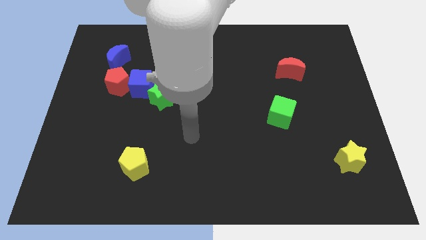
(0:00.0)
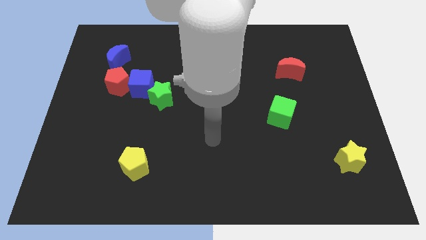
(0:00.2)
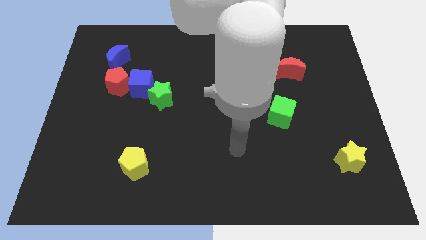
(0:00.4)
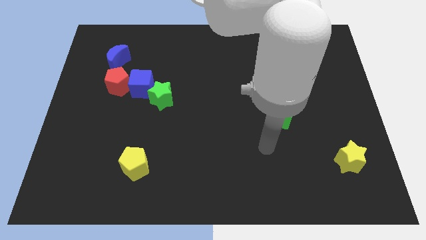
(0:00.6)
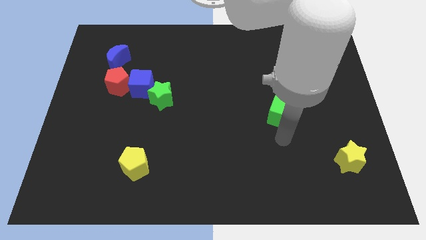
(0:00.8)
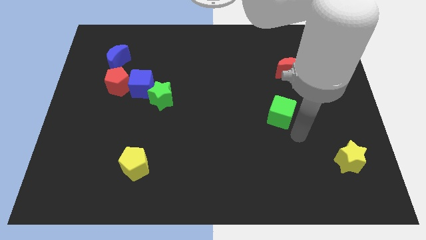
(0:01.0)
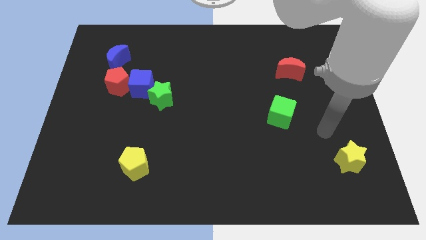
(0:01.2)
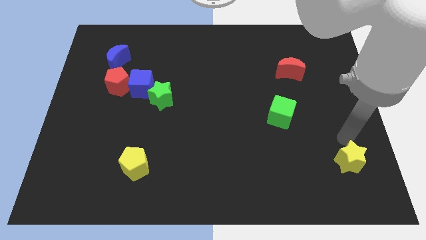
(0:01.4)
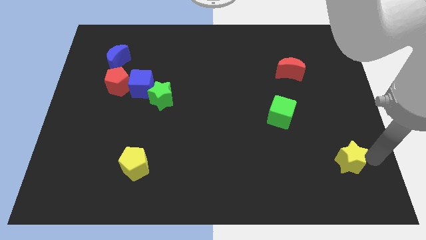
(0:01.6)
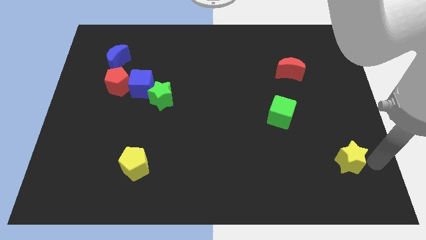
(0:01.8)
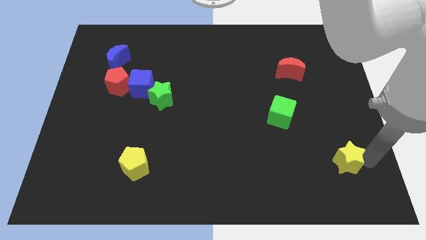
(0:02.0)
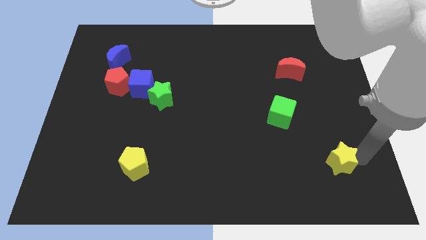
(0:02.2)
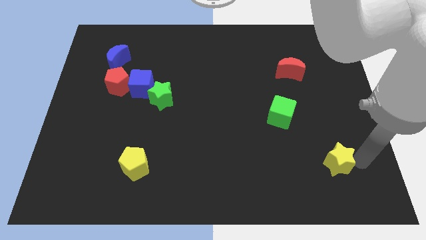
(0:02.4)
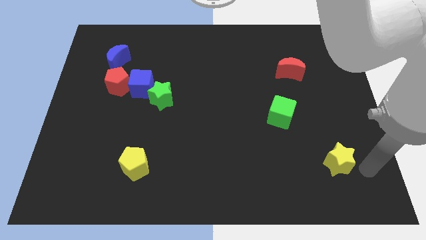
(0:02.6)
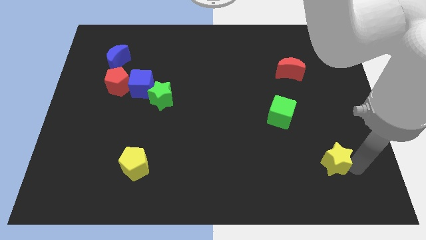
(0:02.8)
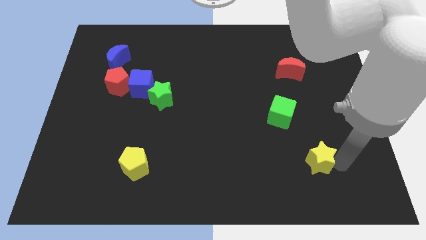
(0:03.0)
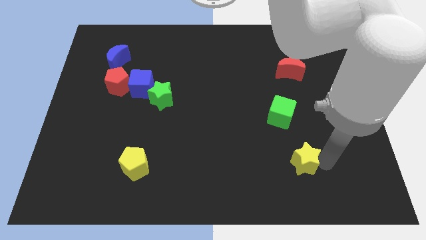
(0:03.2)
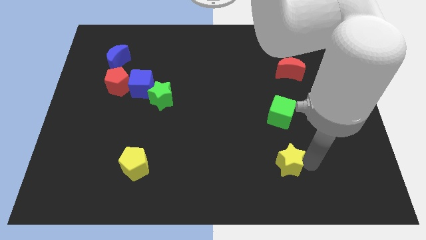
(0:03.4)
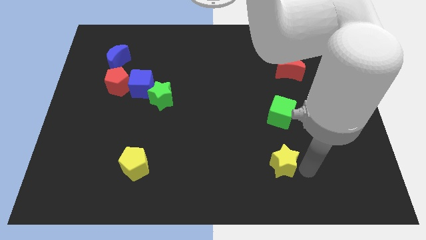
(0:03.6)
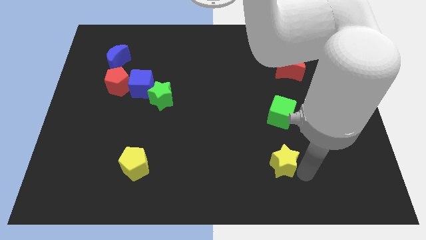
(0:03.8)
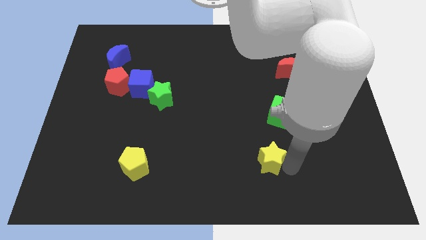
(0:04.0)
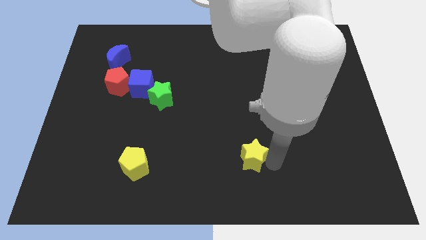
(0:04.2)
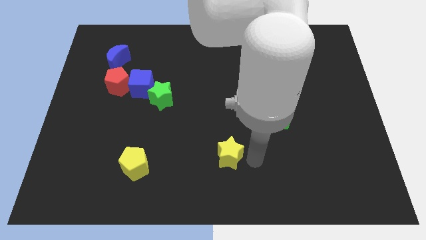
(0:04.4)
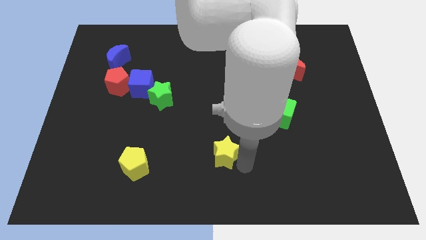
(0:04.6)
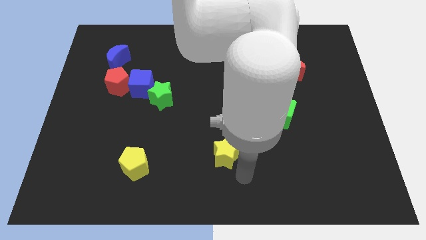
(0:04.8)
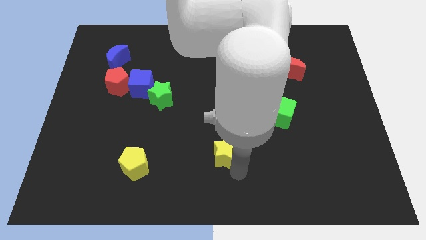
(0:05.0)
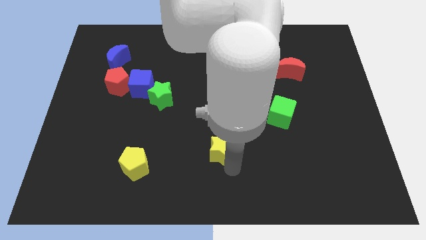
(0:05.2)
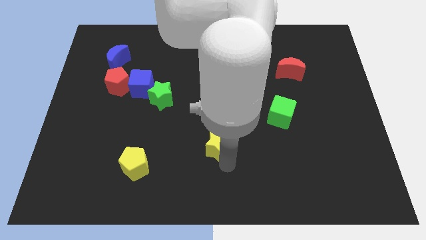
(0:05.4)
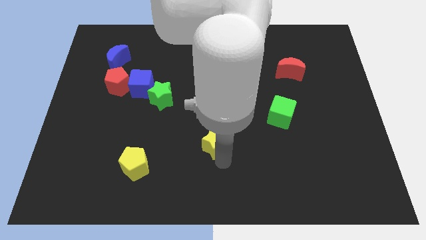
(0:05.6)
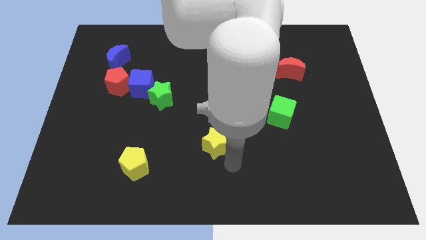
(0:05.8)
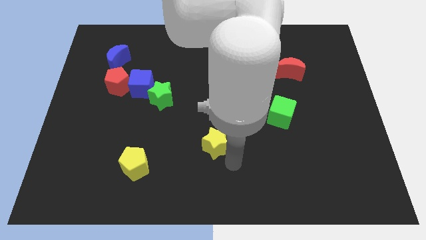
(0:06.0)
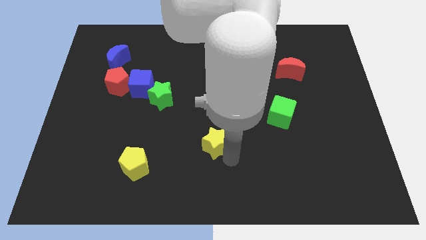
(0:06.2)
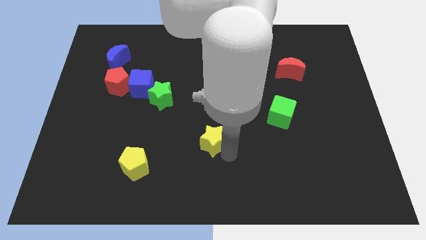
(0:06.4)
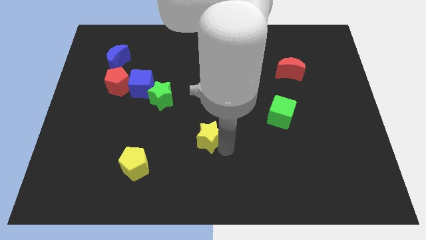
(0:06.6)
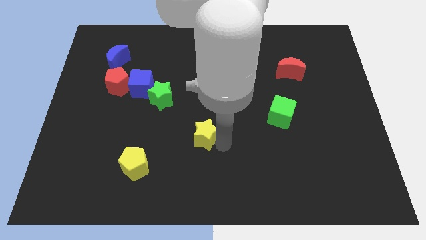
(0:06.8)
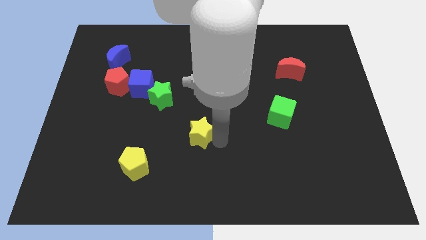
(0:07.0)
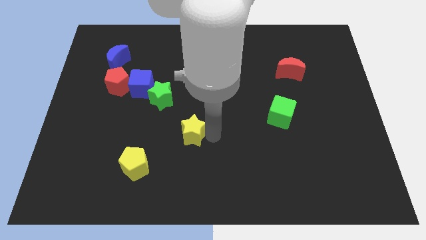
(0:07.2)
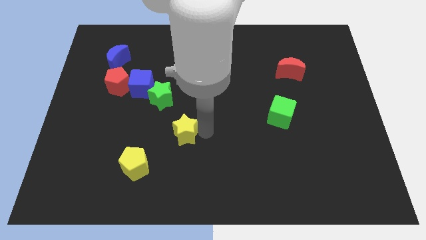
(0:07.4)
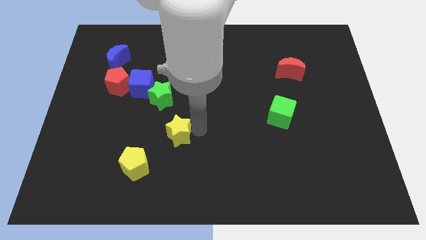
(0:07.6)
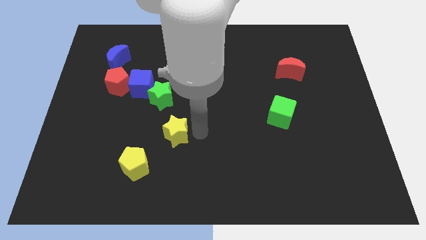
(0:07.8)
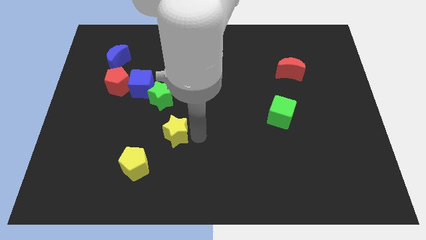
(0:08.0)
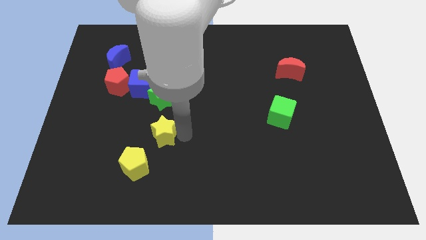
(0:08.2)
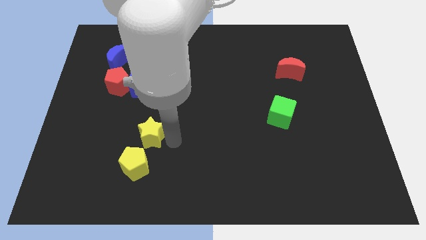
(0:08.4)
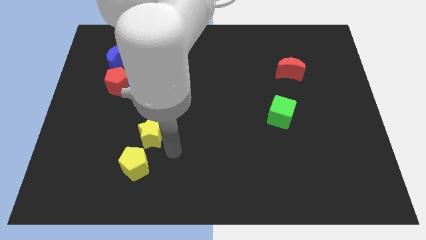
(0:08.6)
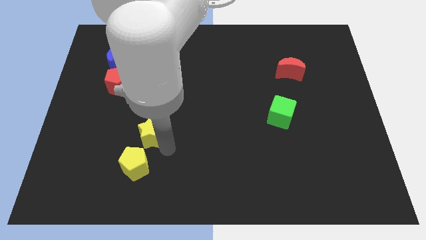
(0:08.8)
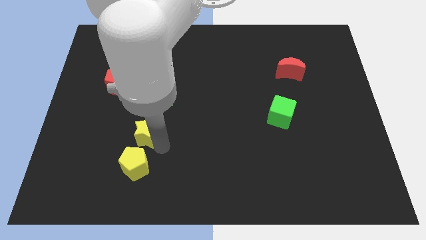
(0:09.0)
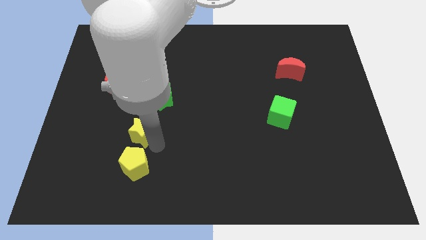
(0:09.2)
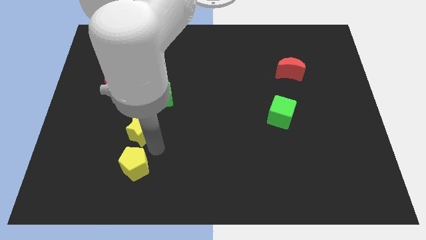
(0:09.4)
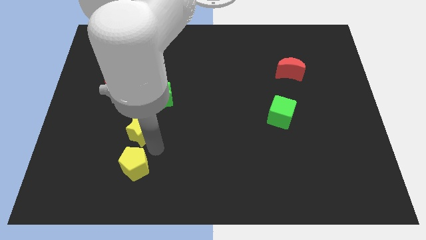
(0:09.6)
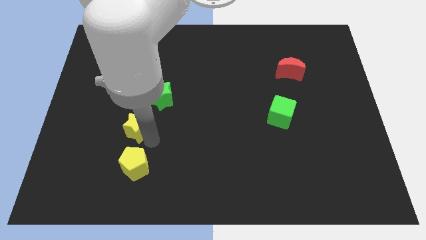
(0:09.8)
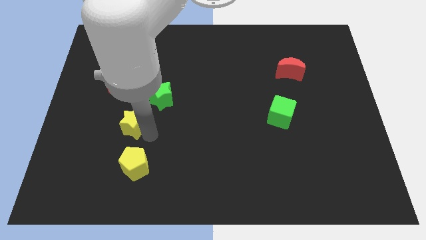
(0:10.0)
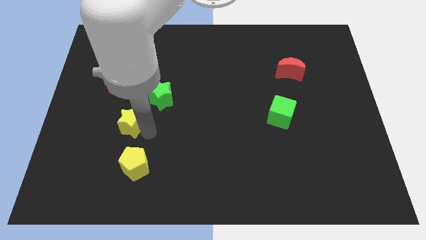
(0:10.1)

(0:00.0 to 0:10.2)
move the yellow star to the bottom of the red pentagon

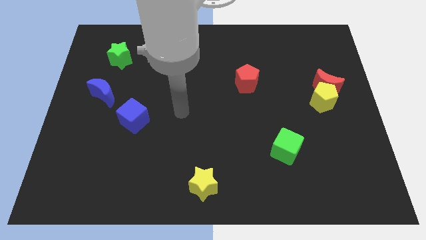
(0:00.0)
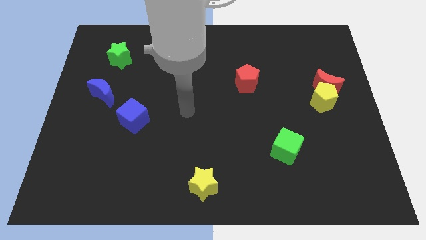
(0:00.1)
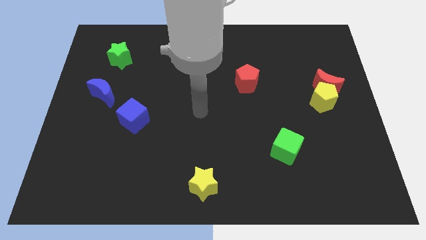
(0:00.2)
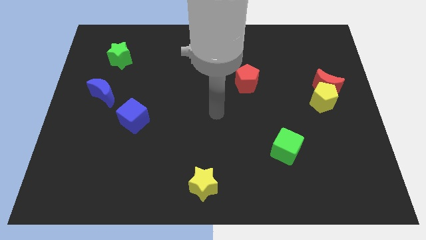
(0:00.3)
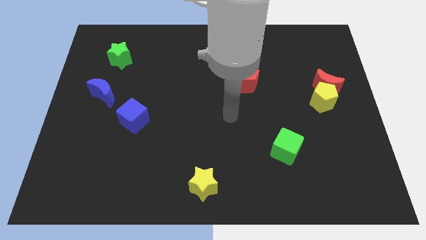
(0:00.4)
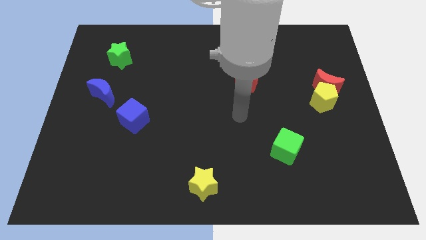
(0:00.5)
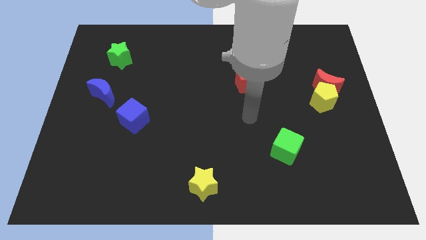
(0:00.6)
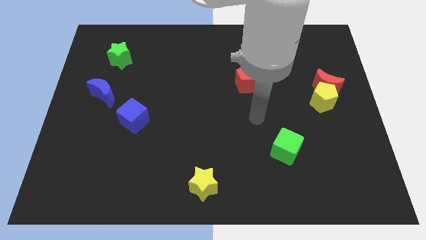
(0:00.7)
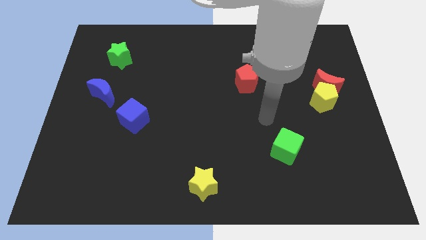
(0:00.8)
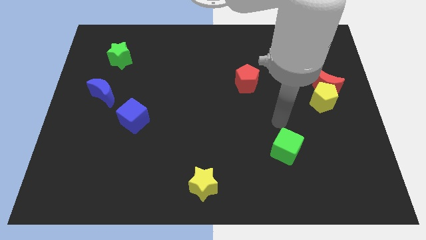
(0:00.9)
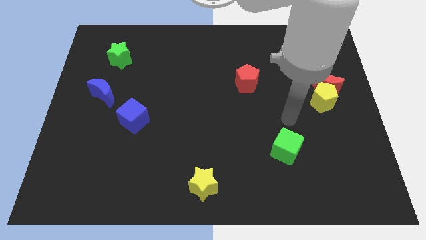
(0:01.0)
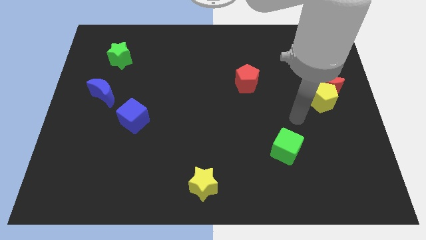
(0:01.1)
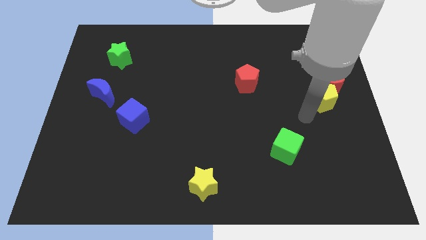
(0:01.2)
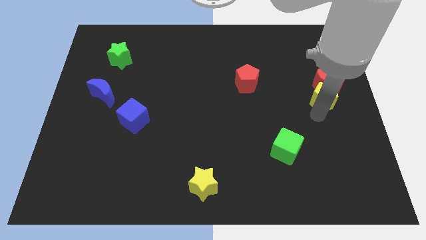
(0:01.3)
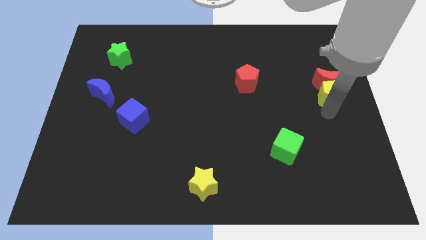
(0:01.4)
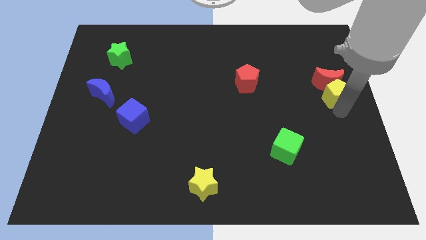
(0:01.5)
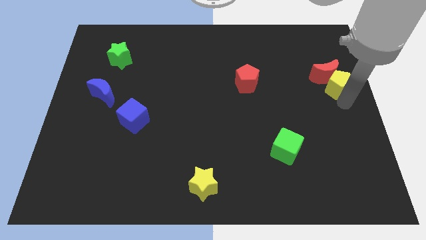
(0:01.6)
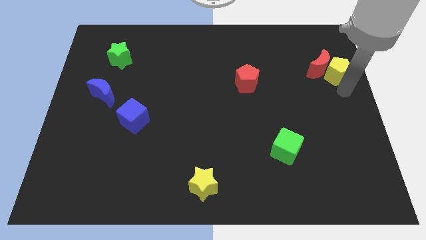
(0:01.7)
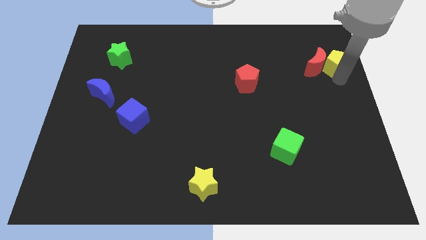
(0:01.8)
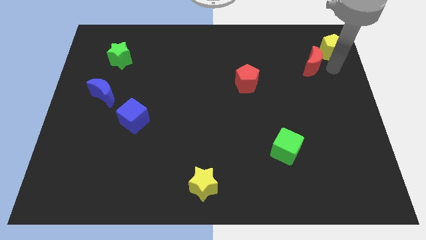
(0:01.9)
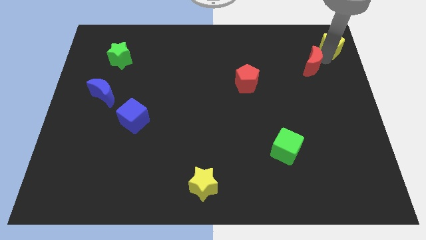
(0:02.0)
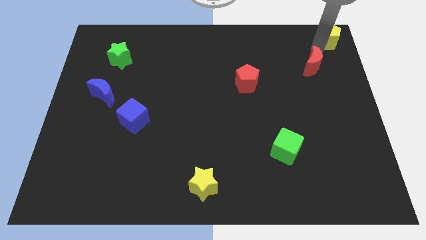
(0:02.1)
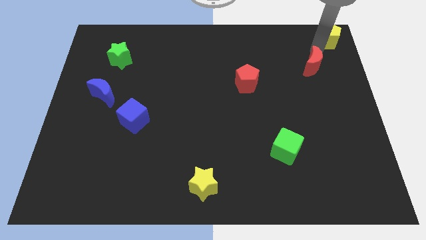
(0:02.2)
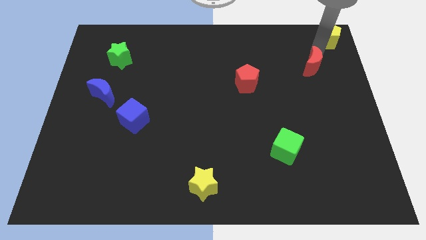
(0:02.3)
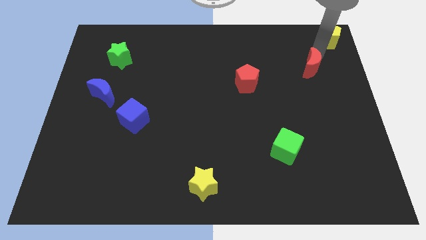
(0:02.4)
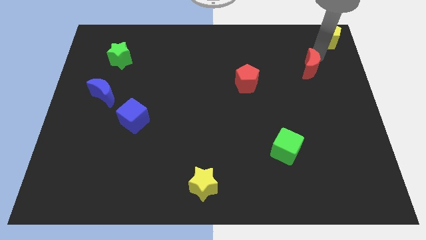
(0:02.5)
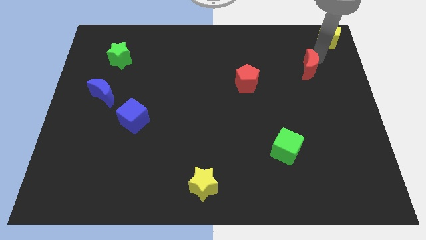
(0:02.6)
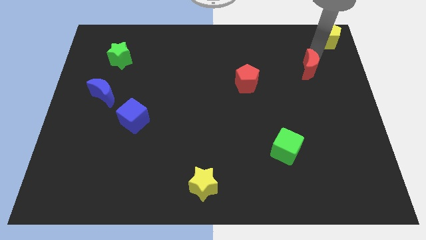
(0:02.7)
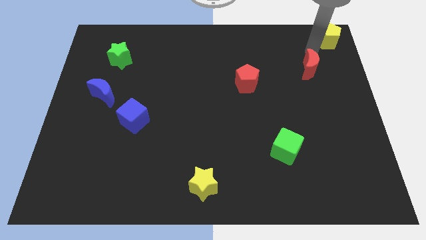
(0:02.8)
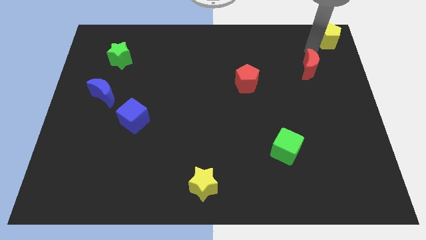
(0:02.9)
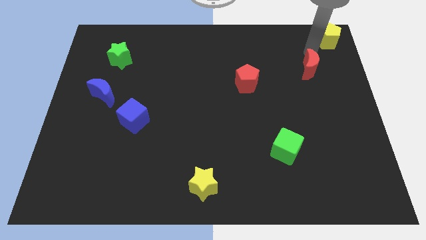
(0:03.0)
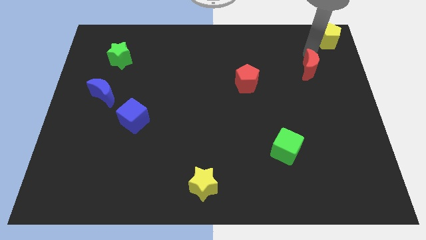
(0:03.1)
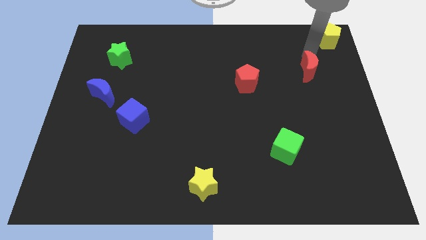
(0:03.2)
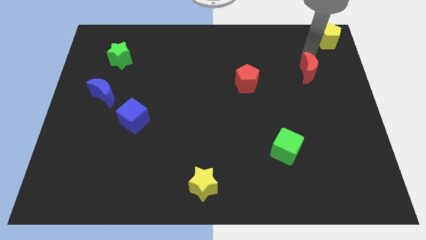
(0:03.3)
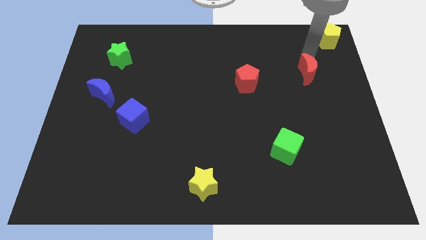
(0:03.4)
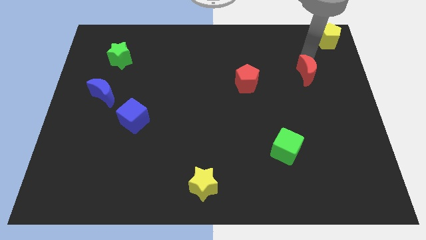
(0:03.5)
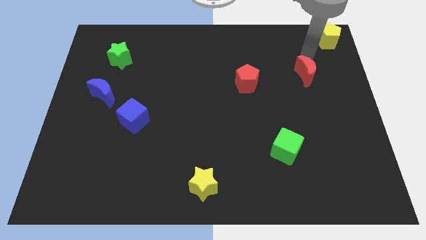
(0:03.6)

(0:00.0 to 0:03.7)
push the red moon right of the red pentagon
